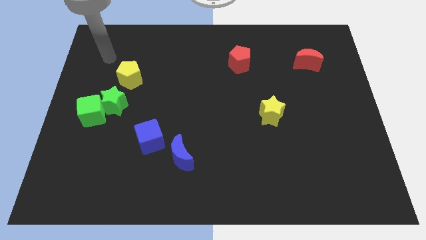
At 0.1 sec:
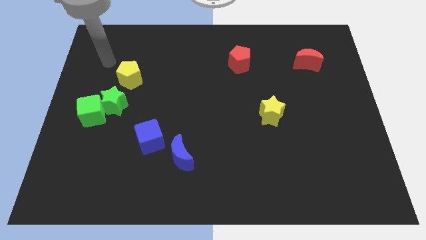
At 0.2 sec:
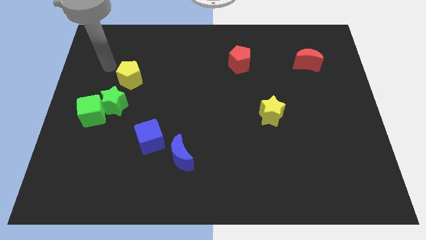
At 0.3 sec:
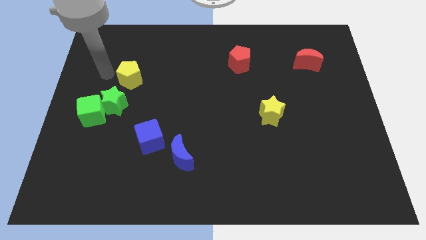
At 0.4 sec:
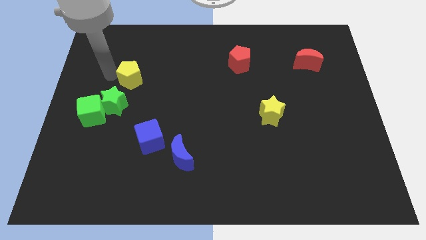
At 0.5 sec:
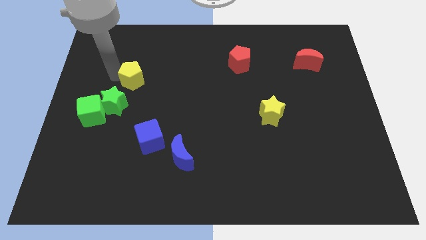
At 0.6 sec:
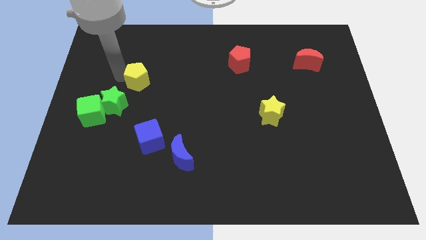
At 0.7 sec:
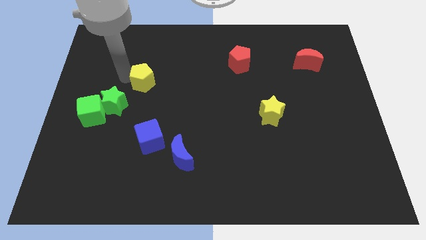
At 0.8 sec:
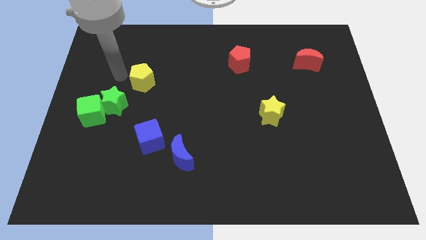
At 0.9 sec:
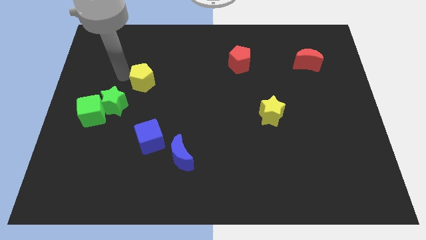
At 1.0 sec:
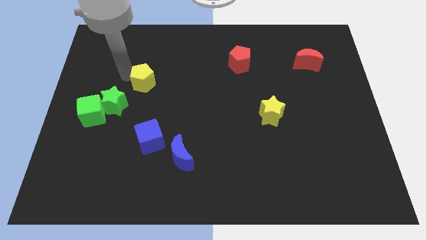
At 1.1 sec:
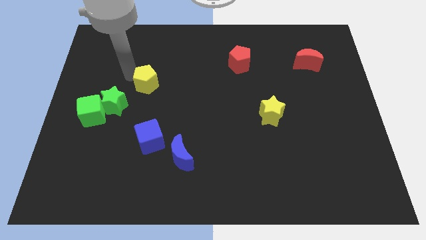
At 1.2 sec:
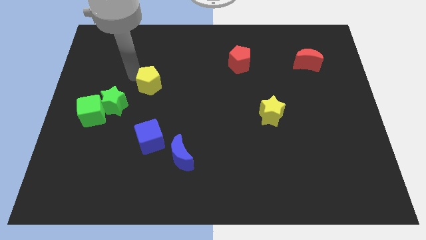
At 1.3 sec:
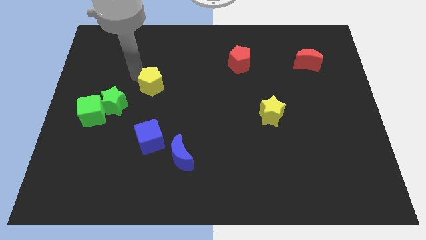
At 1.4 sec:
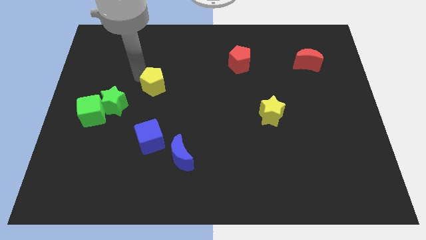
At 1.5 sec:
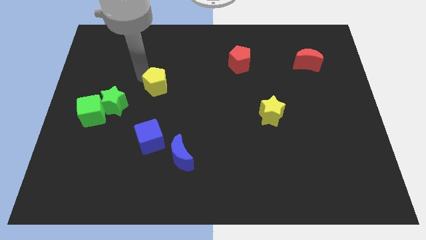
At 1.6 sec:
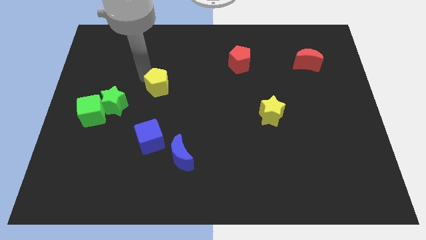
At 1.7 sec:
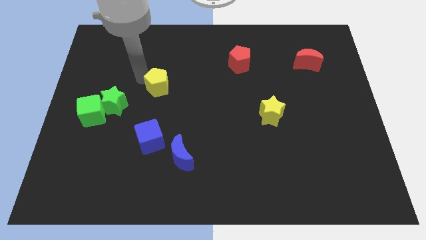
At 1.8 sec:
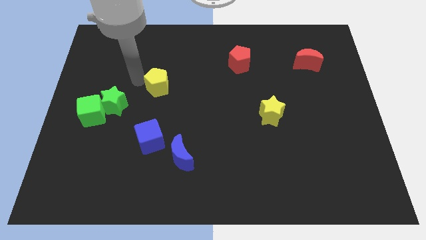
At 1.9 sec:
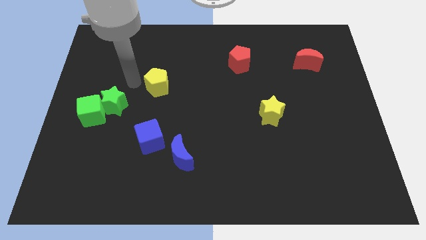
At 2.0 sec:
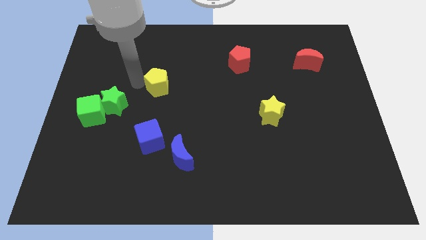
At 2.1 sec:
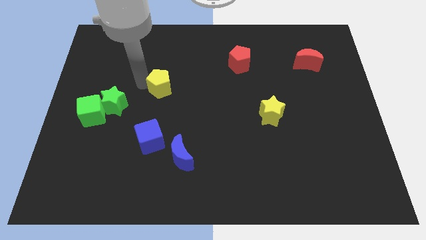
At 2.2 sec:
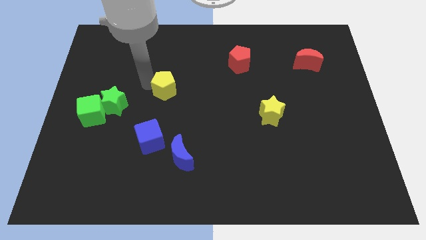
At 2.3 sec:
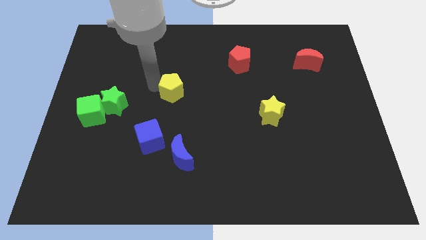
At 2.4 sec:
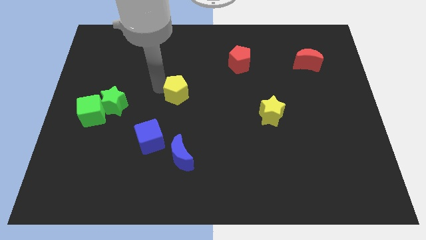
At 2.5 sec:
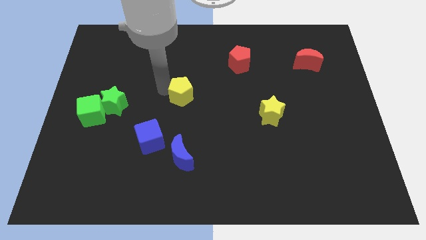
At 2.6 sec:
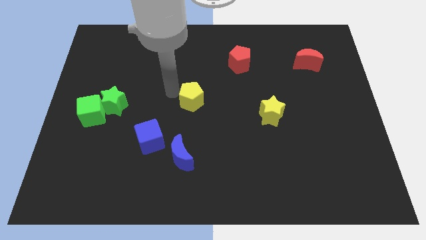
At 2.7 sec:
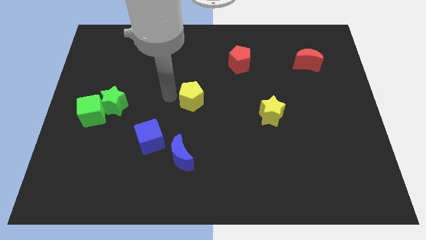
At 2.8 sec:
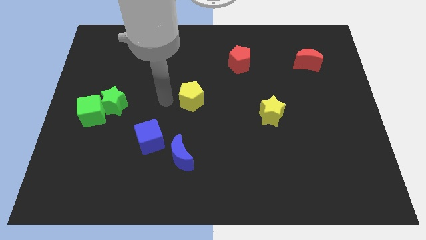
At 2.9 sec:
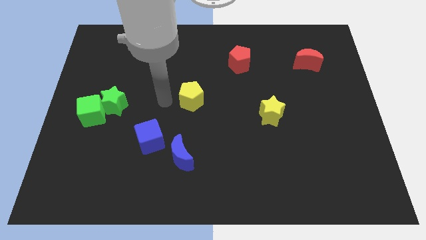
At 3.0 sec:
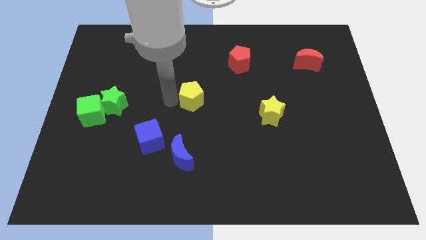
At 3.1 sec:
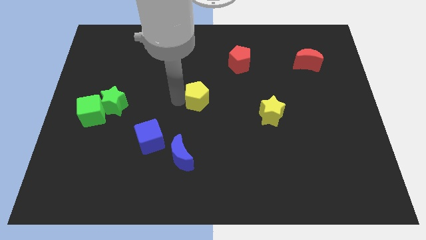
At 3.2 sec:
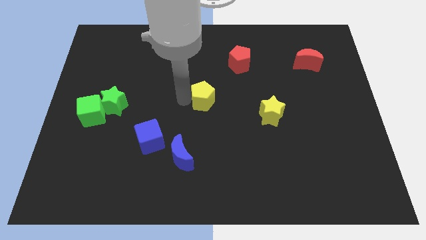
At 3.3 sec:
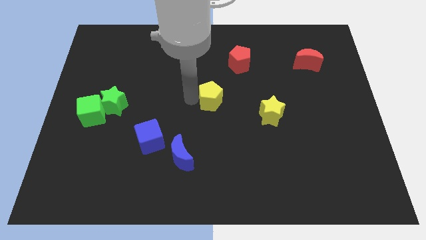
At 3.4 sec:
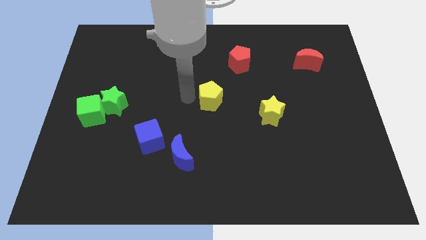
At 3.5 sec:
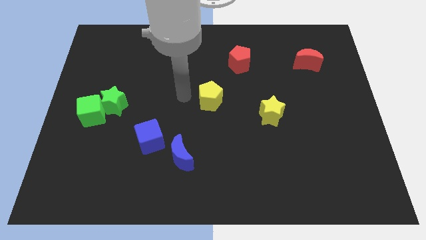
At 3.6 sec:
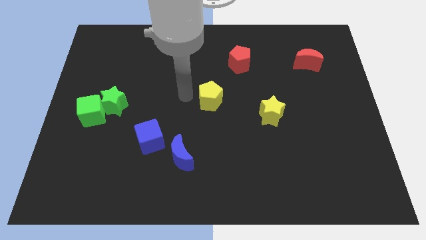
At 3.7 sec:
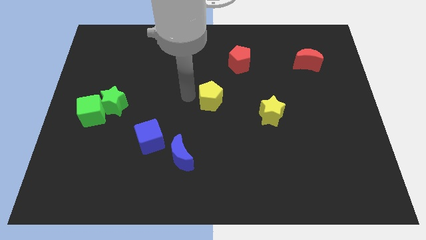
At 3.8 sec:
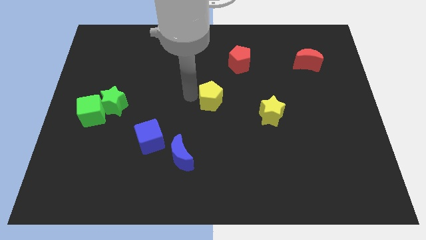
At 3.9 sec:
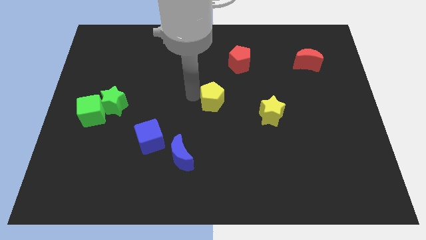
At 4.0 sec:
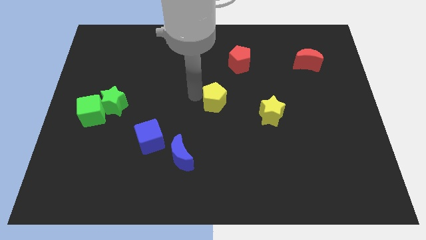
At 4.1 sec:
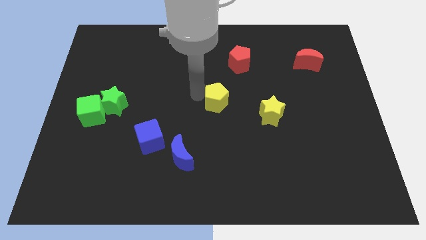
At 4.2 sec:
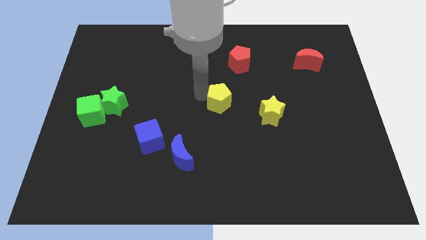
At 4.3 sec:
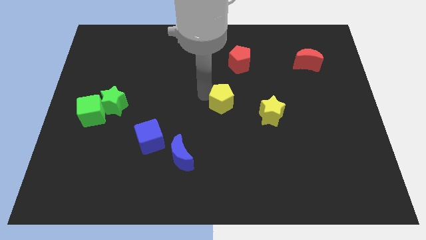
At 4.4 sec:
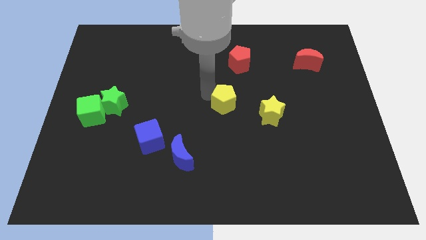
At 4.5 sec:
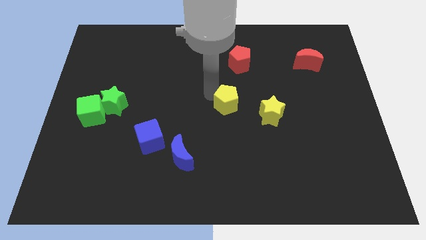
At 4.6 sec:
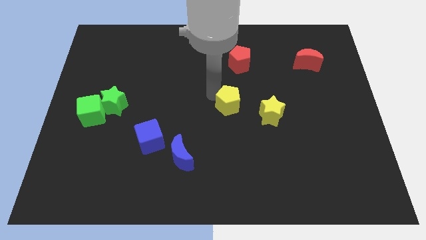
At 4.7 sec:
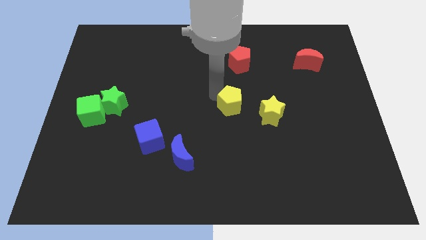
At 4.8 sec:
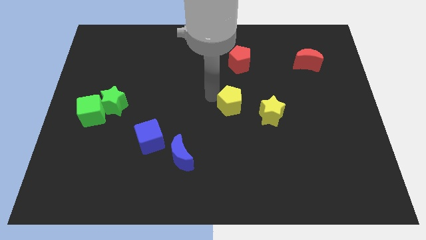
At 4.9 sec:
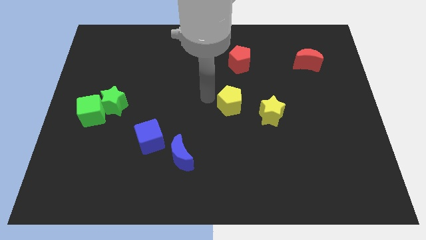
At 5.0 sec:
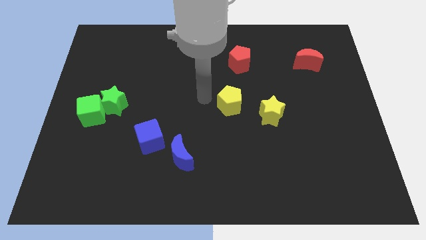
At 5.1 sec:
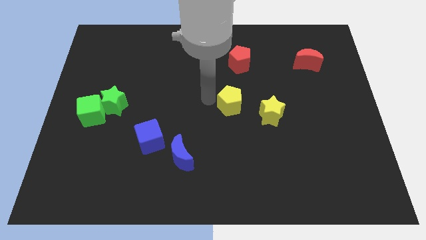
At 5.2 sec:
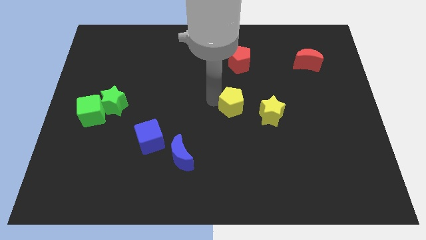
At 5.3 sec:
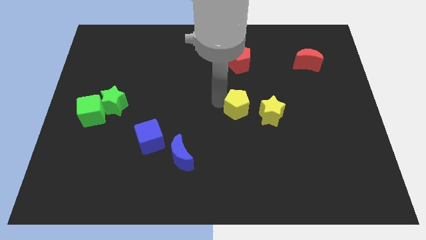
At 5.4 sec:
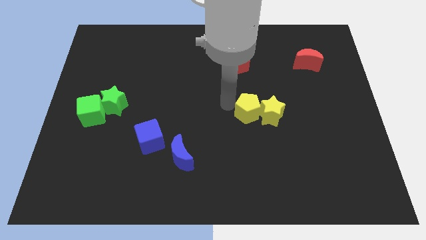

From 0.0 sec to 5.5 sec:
slide the yellow pentagon next to the yellow star

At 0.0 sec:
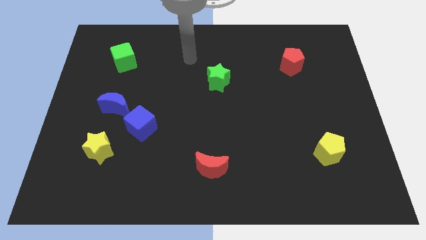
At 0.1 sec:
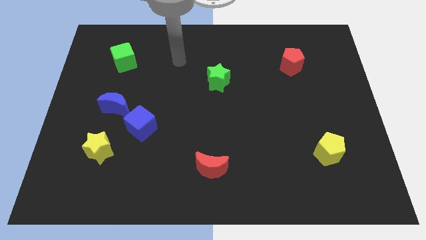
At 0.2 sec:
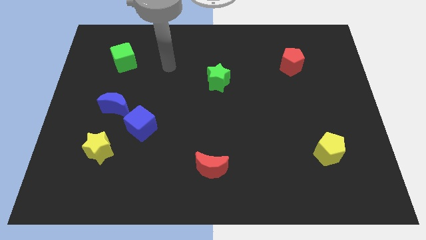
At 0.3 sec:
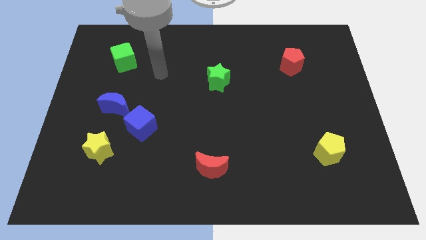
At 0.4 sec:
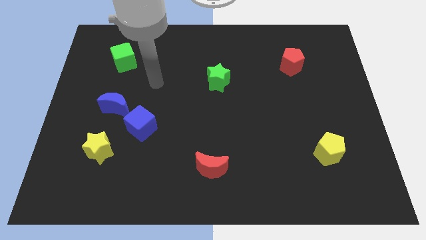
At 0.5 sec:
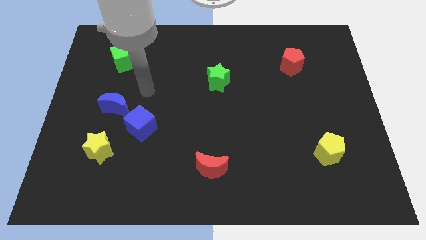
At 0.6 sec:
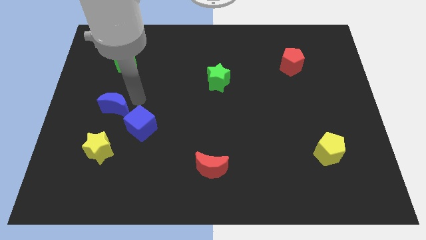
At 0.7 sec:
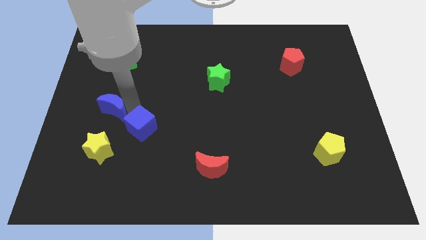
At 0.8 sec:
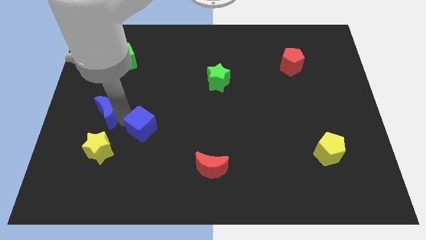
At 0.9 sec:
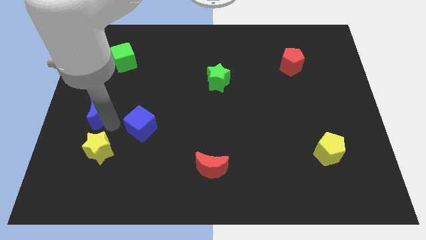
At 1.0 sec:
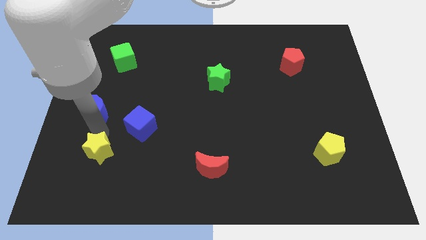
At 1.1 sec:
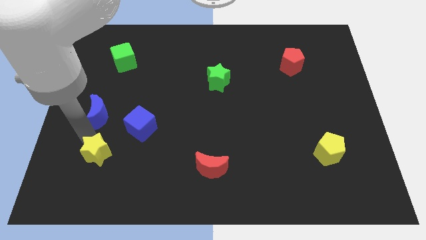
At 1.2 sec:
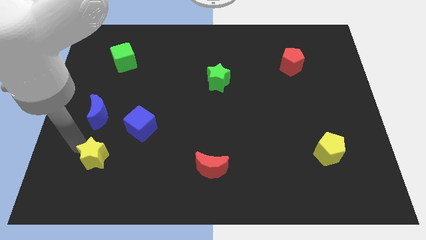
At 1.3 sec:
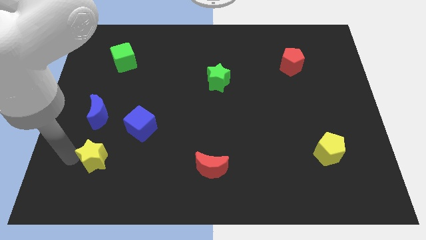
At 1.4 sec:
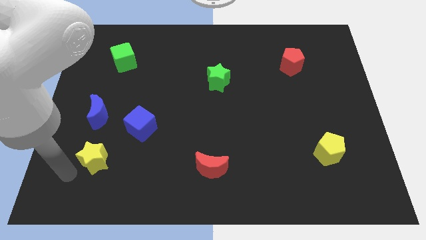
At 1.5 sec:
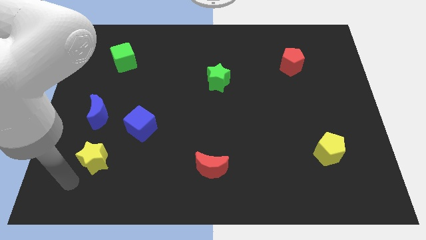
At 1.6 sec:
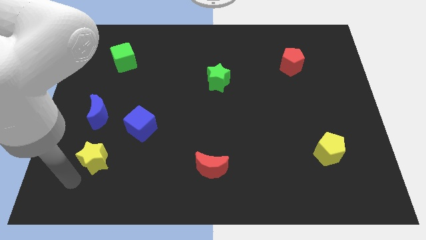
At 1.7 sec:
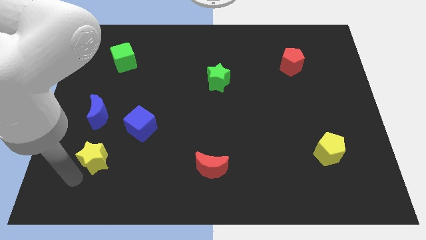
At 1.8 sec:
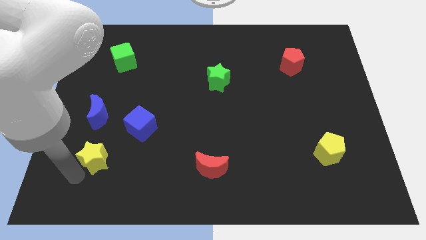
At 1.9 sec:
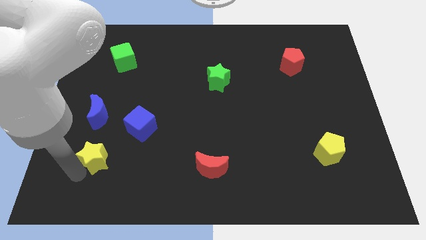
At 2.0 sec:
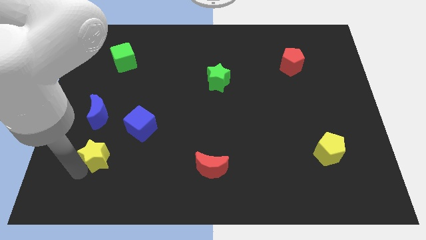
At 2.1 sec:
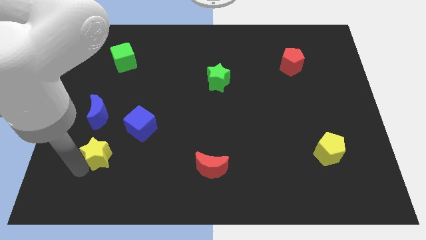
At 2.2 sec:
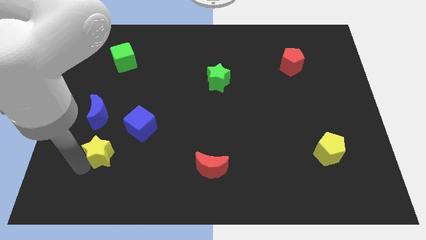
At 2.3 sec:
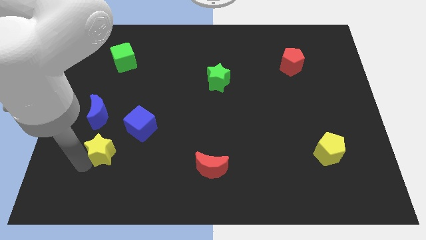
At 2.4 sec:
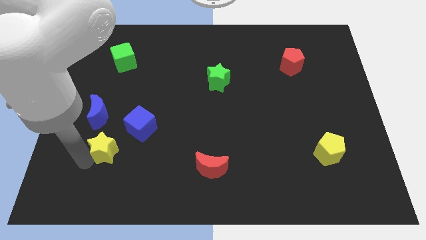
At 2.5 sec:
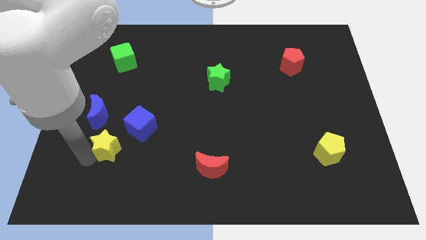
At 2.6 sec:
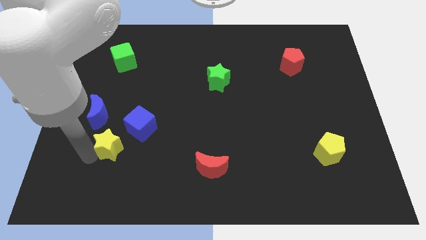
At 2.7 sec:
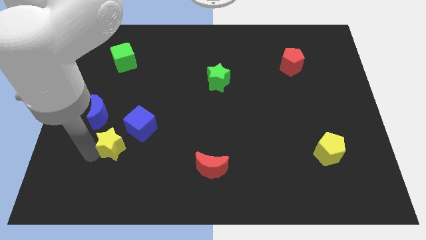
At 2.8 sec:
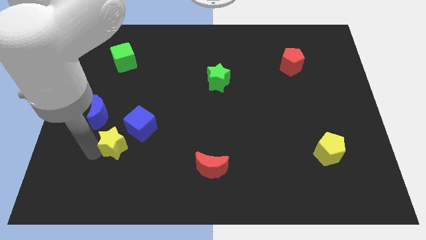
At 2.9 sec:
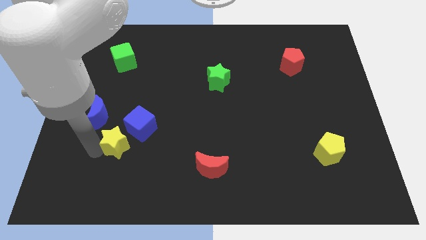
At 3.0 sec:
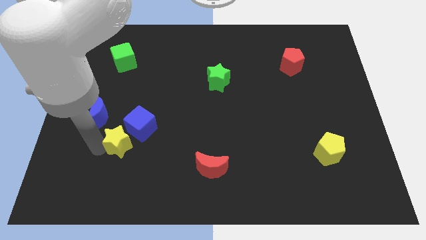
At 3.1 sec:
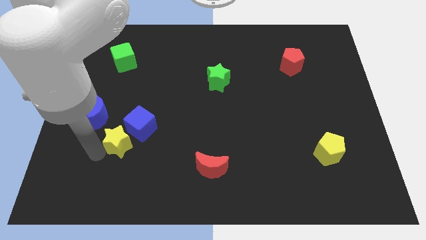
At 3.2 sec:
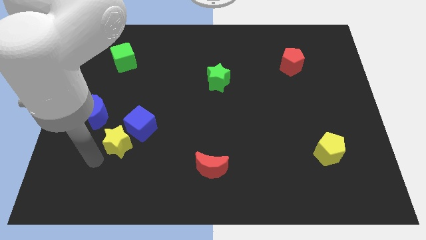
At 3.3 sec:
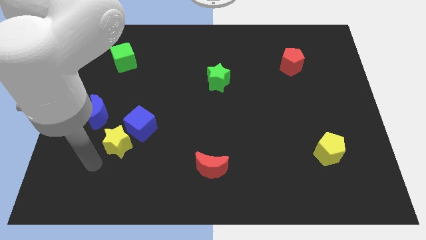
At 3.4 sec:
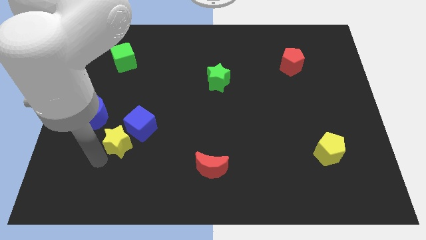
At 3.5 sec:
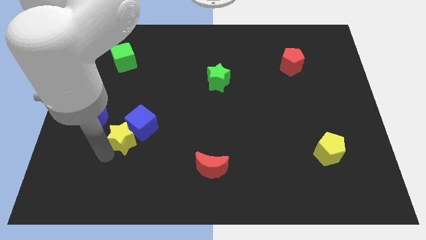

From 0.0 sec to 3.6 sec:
push the yellow star next to the blue cube
